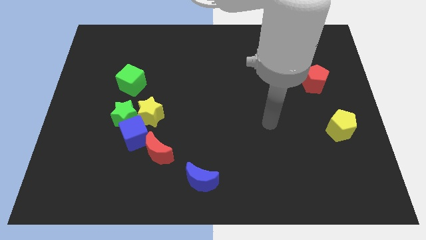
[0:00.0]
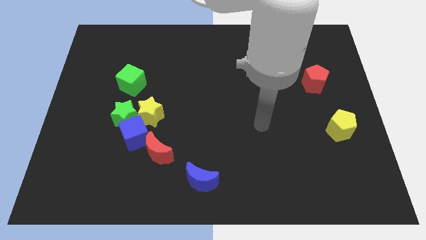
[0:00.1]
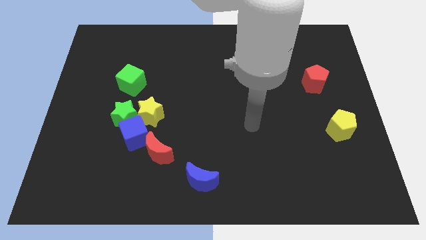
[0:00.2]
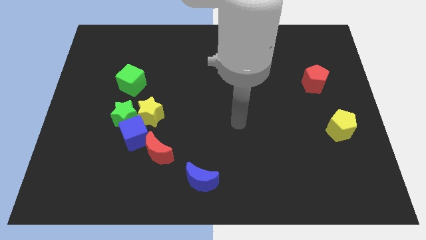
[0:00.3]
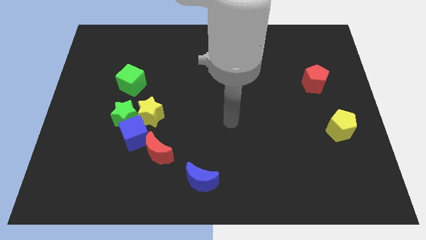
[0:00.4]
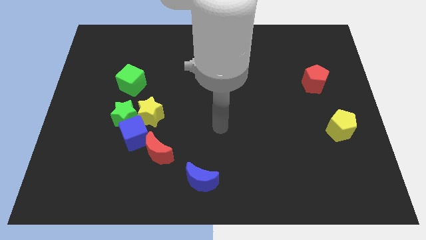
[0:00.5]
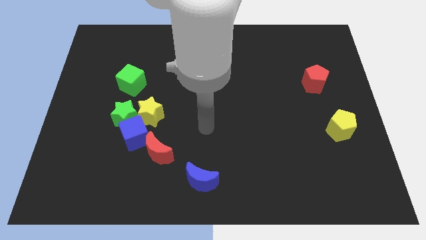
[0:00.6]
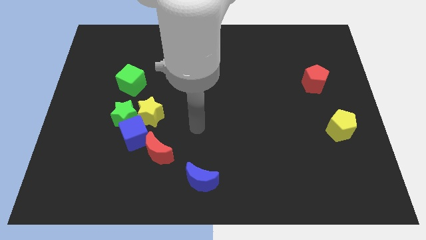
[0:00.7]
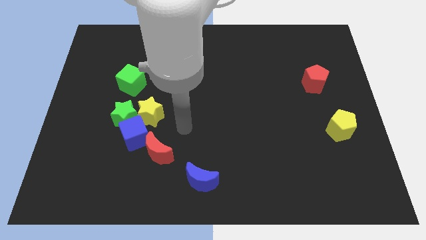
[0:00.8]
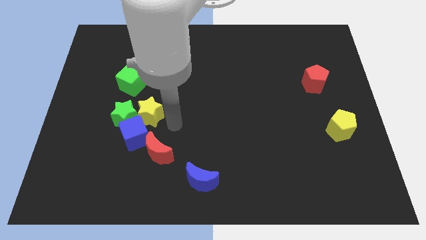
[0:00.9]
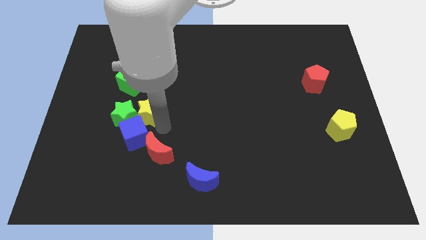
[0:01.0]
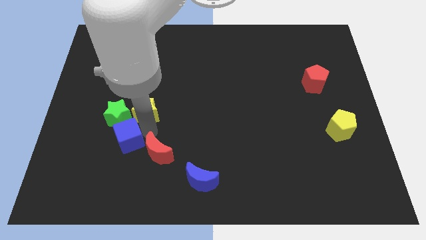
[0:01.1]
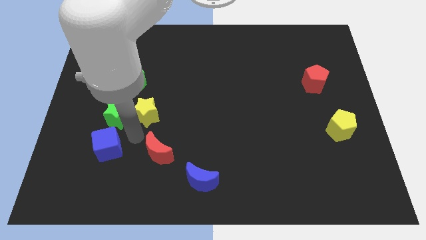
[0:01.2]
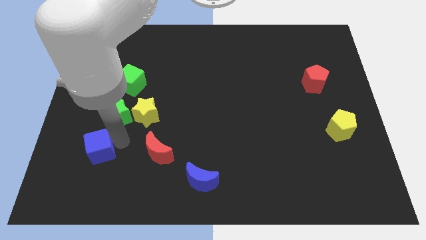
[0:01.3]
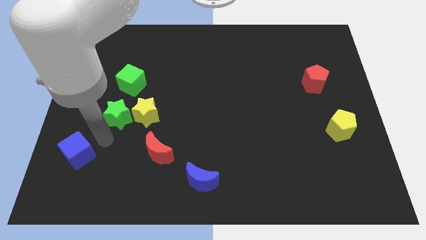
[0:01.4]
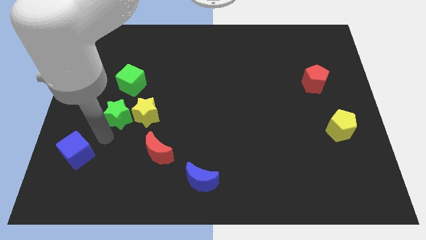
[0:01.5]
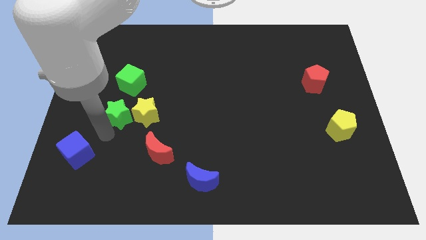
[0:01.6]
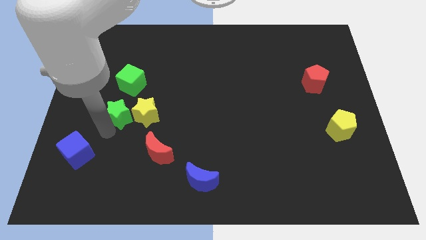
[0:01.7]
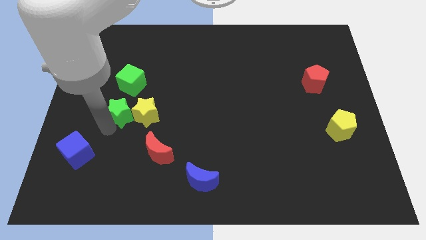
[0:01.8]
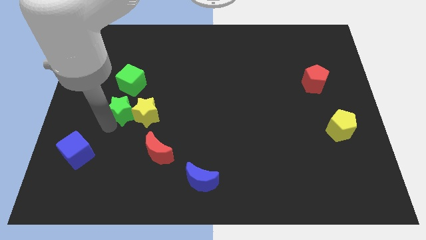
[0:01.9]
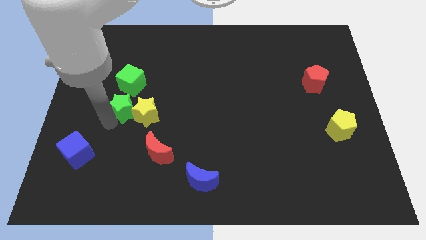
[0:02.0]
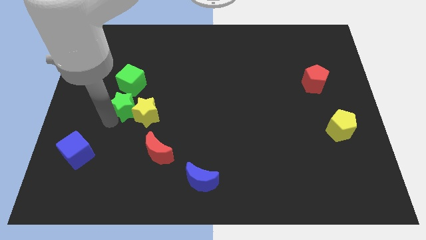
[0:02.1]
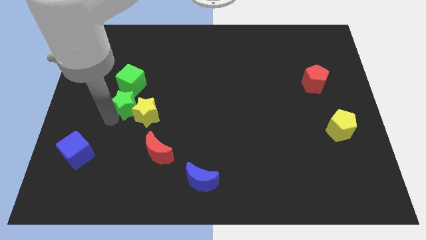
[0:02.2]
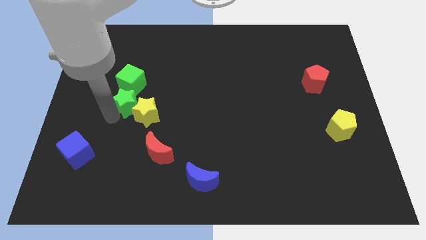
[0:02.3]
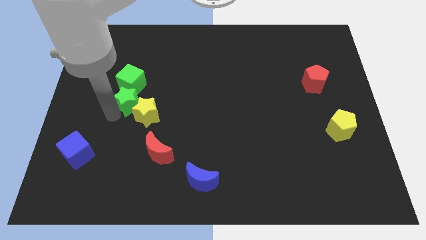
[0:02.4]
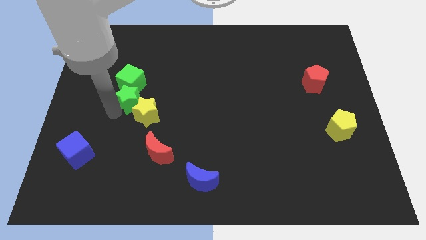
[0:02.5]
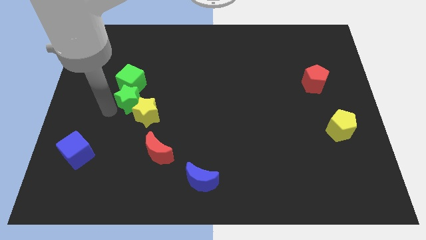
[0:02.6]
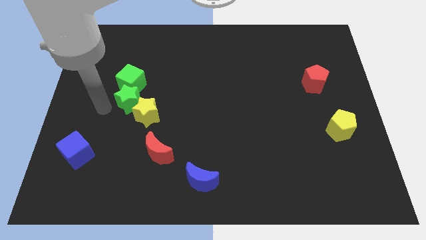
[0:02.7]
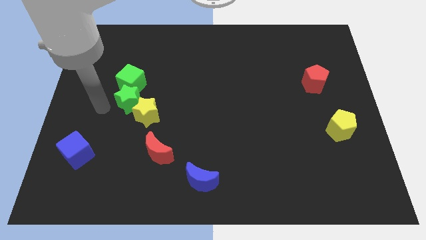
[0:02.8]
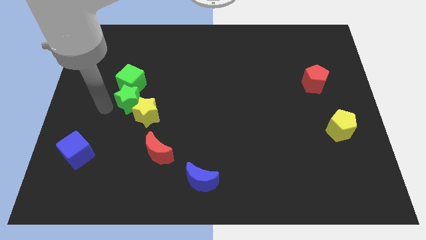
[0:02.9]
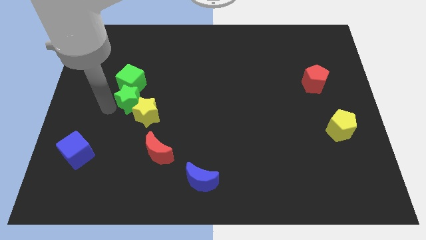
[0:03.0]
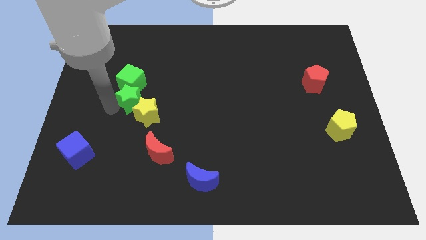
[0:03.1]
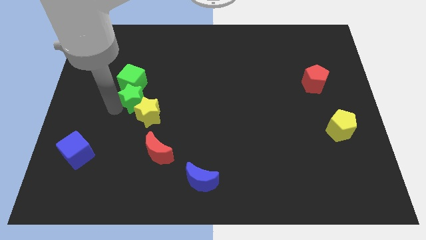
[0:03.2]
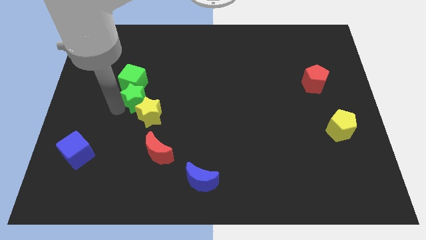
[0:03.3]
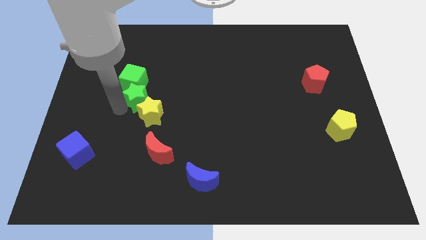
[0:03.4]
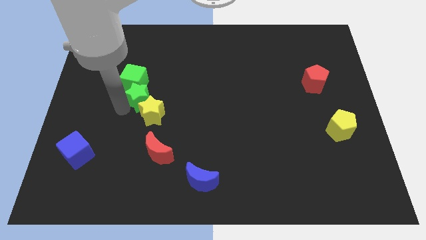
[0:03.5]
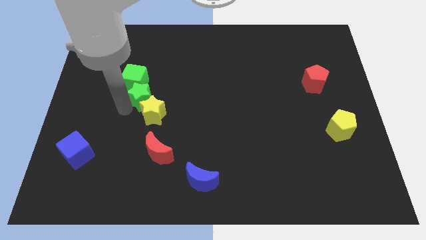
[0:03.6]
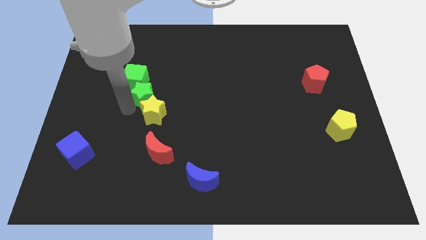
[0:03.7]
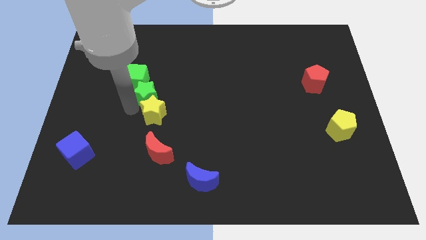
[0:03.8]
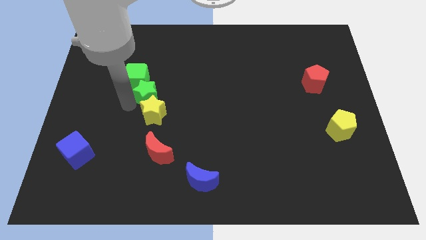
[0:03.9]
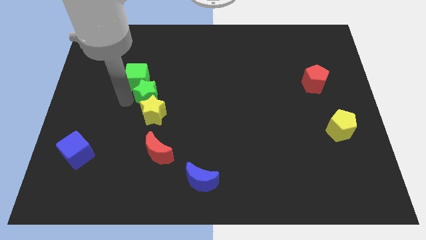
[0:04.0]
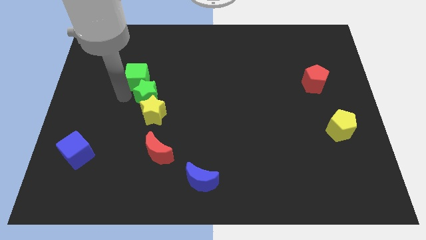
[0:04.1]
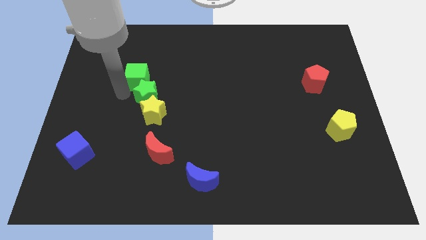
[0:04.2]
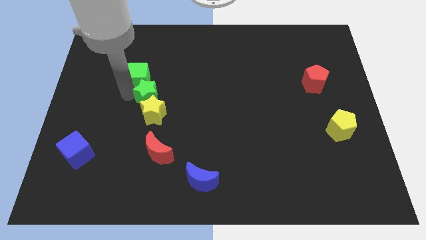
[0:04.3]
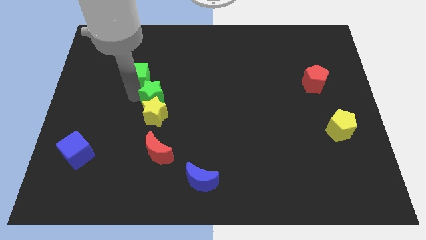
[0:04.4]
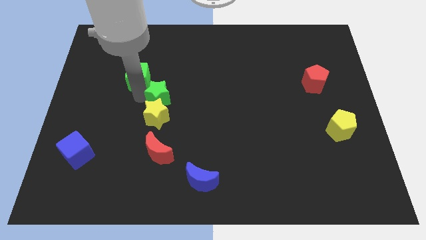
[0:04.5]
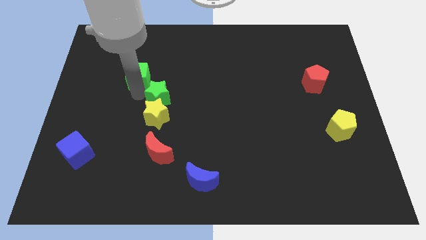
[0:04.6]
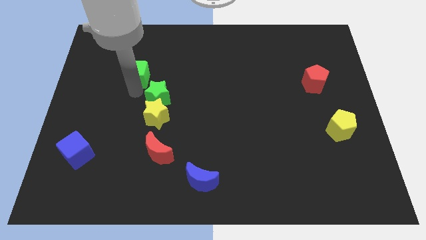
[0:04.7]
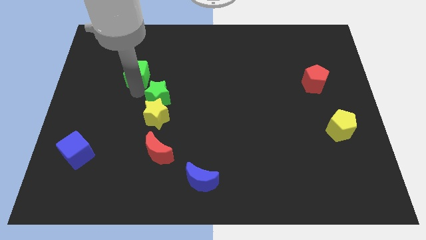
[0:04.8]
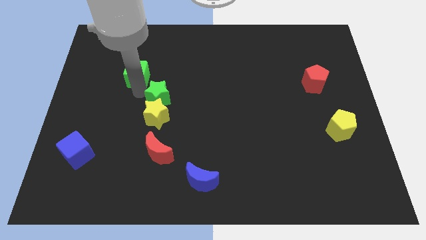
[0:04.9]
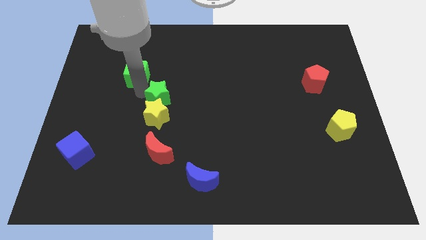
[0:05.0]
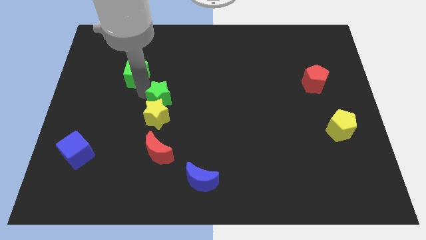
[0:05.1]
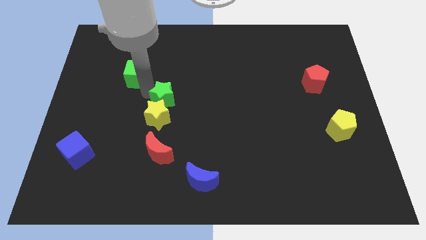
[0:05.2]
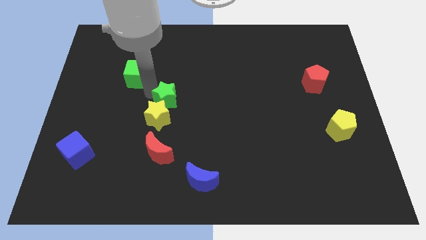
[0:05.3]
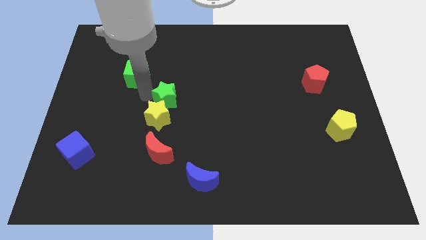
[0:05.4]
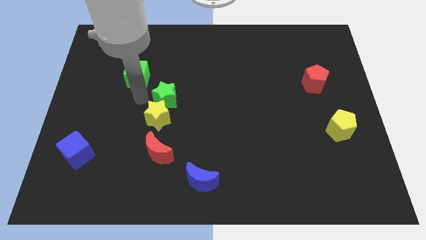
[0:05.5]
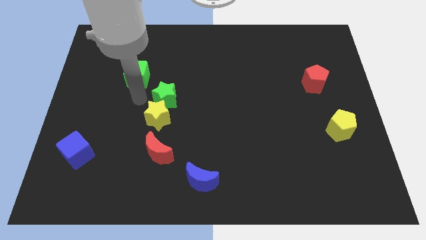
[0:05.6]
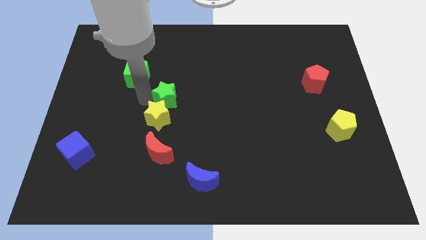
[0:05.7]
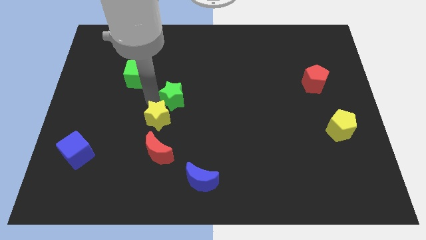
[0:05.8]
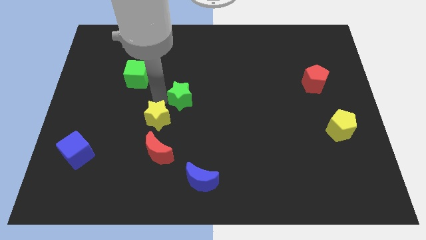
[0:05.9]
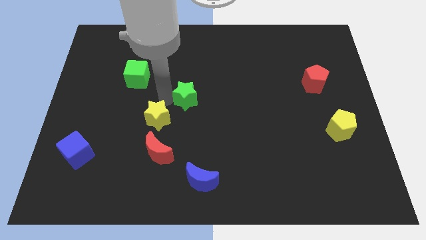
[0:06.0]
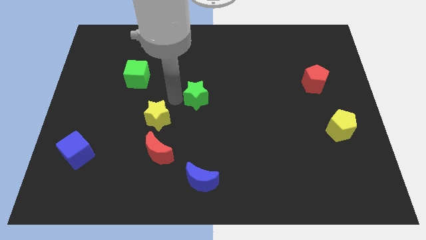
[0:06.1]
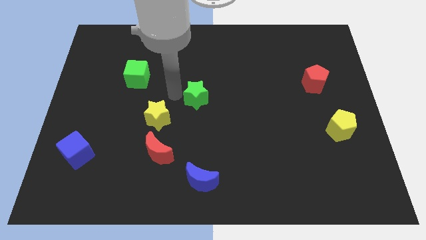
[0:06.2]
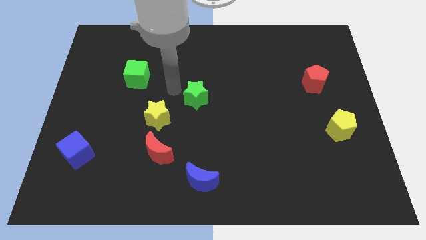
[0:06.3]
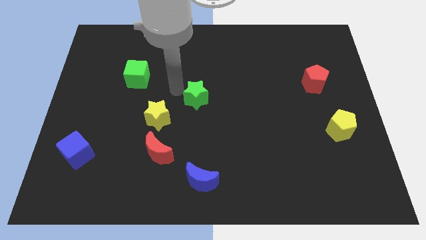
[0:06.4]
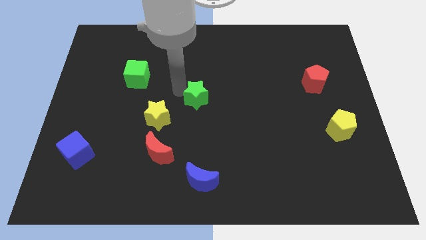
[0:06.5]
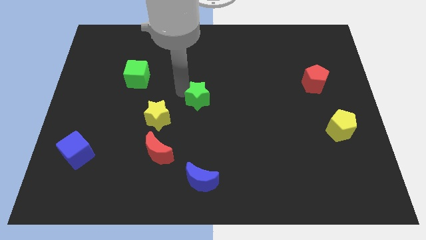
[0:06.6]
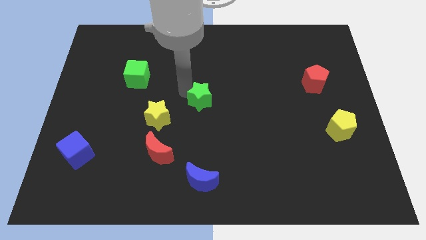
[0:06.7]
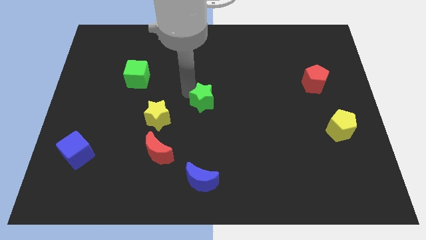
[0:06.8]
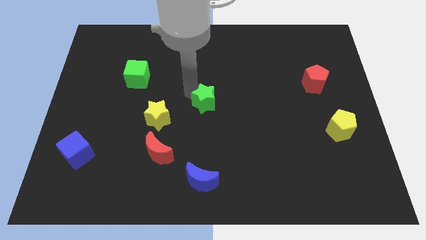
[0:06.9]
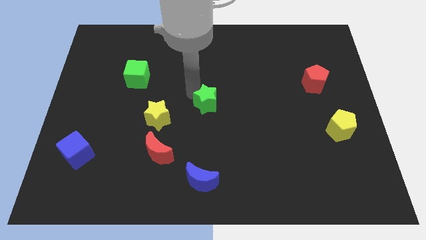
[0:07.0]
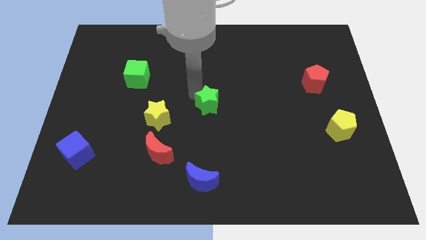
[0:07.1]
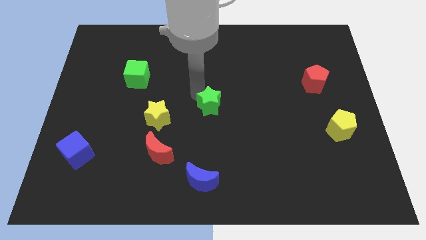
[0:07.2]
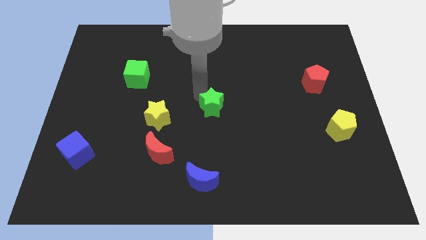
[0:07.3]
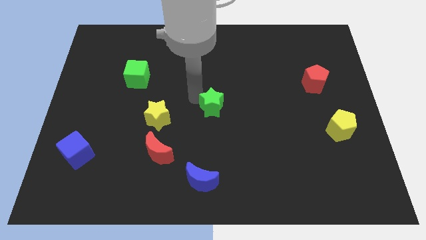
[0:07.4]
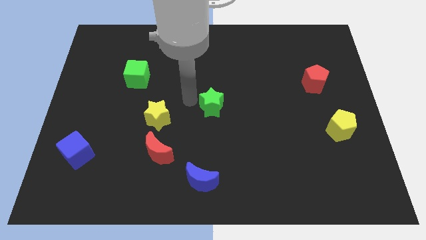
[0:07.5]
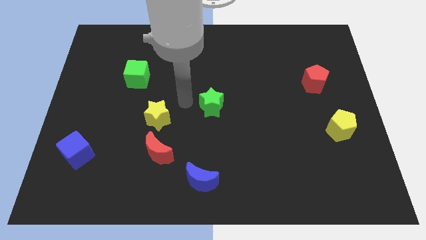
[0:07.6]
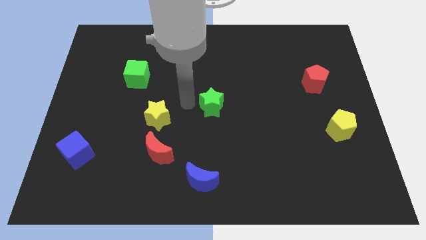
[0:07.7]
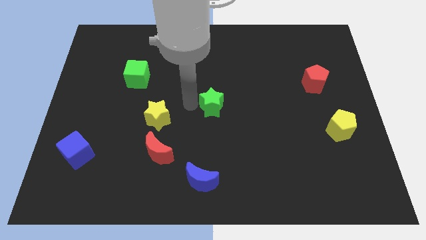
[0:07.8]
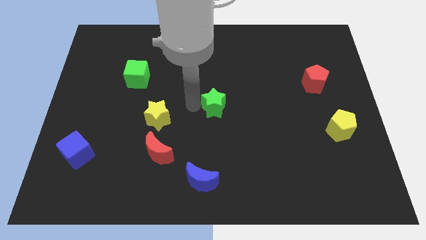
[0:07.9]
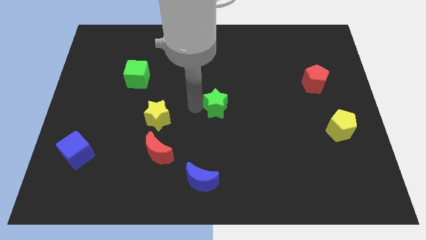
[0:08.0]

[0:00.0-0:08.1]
slide the green star to the right

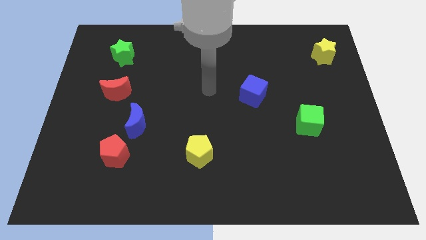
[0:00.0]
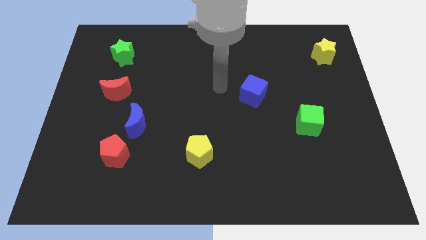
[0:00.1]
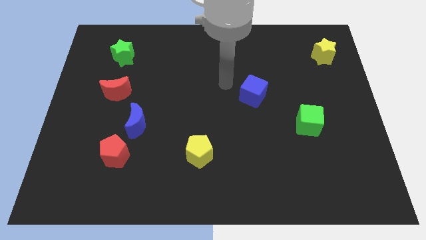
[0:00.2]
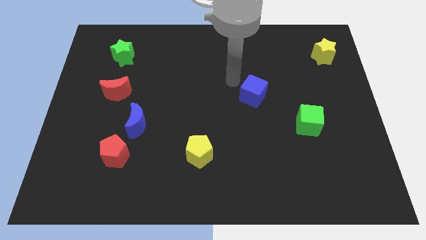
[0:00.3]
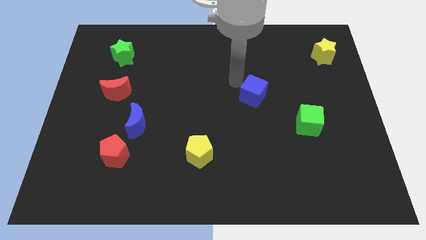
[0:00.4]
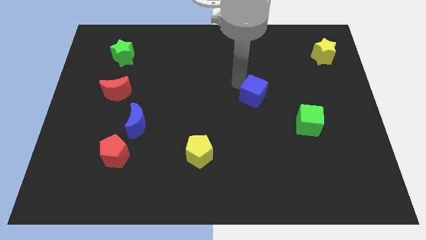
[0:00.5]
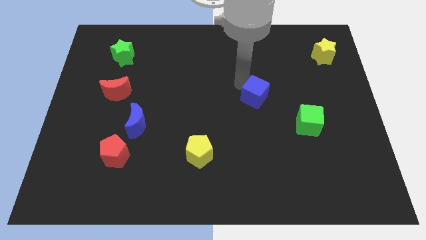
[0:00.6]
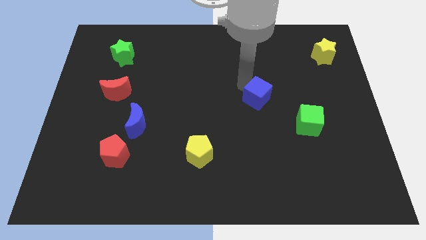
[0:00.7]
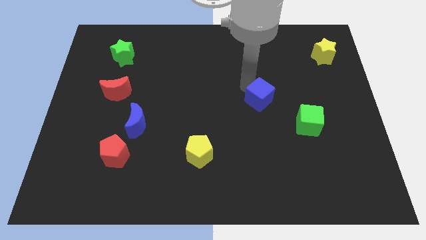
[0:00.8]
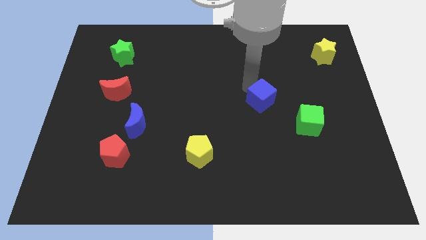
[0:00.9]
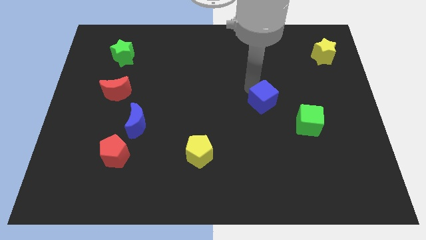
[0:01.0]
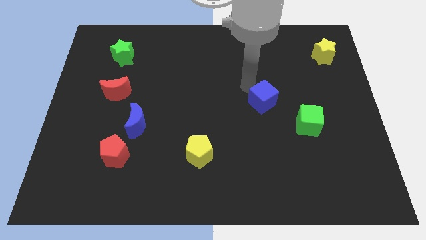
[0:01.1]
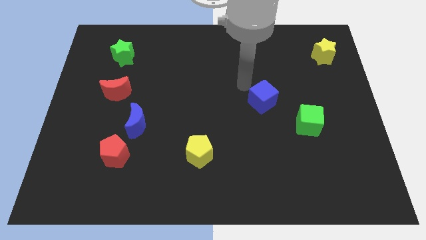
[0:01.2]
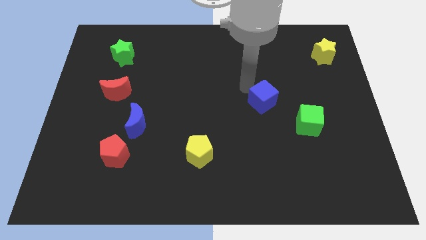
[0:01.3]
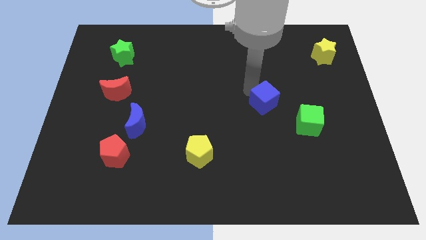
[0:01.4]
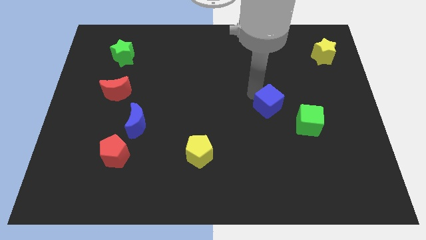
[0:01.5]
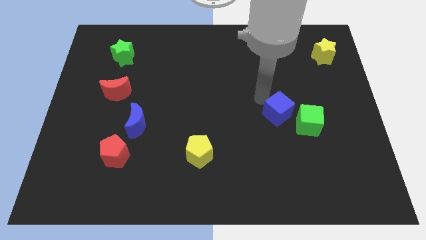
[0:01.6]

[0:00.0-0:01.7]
slide the blue cube somewhat down and then right
